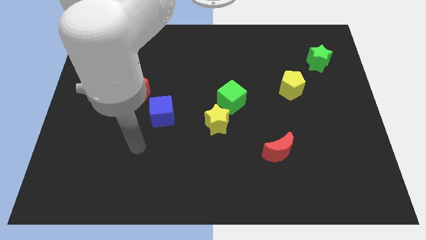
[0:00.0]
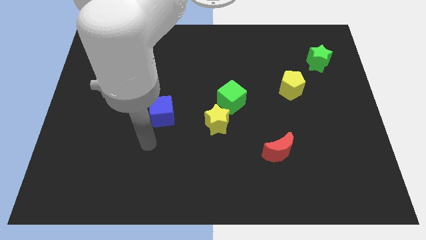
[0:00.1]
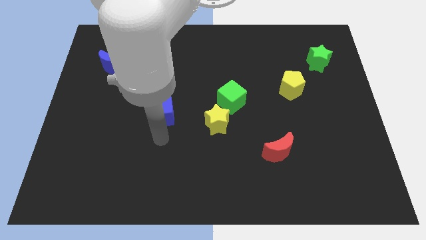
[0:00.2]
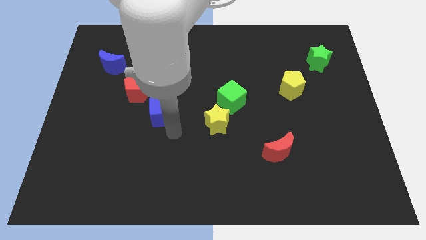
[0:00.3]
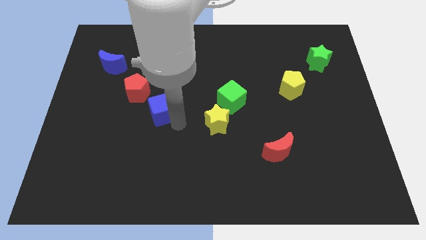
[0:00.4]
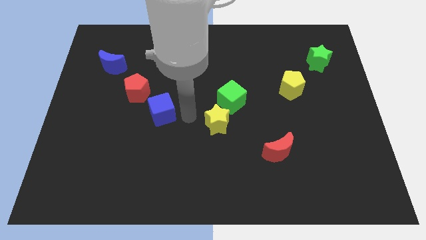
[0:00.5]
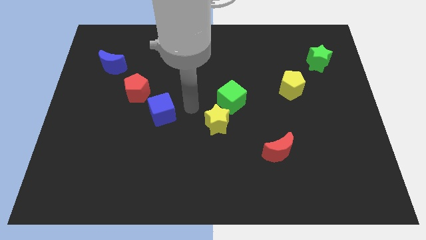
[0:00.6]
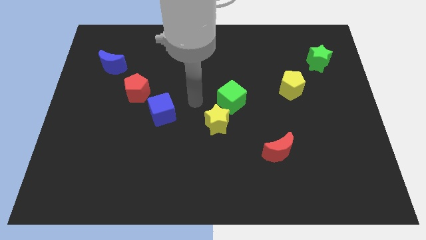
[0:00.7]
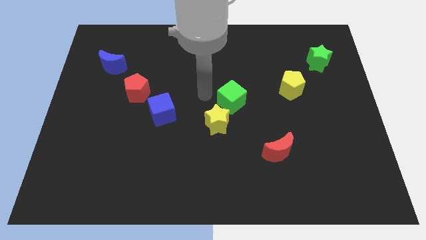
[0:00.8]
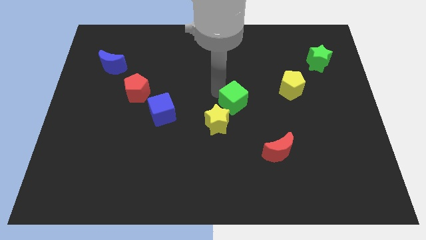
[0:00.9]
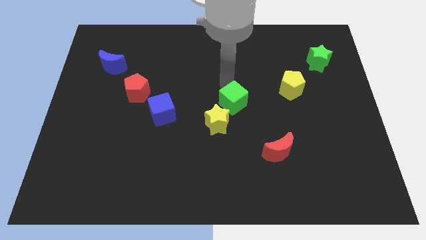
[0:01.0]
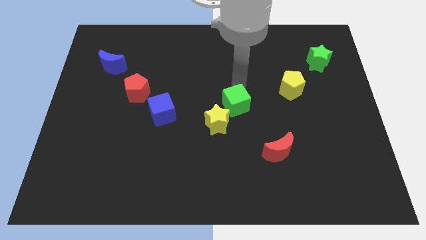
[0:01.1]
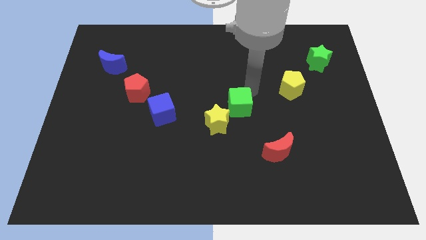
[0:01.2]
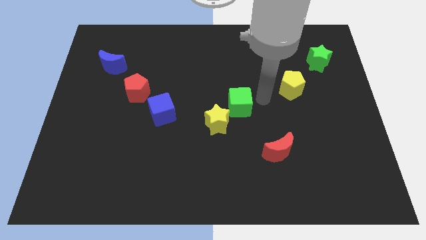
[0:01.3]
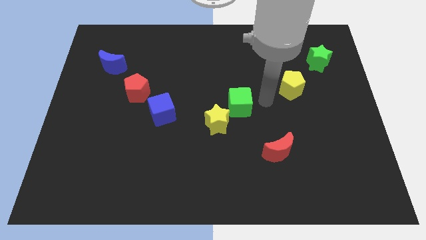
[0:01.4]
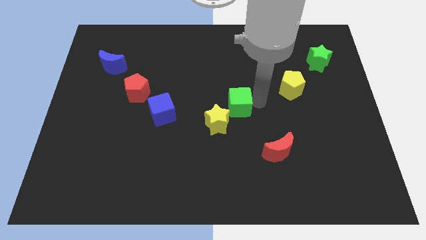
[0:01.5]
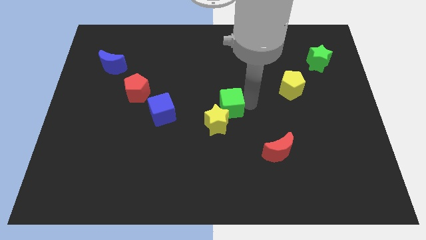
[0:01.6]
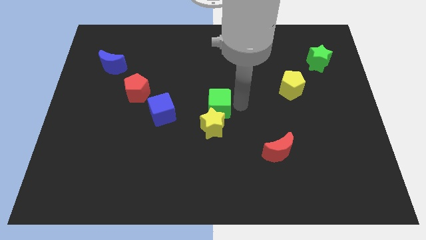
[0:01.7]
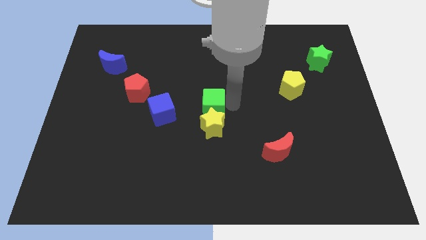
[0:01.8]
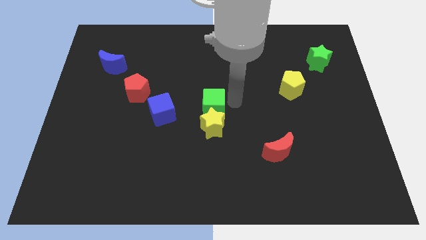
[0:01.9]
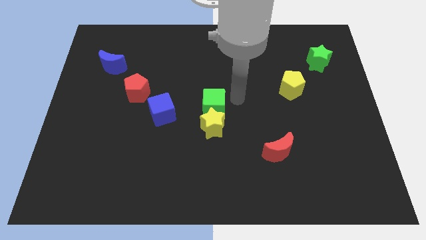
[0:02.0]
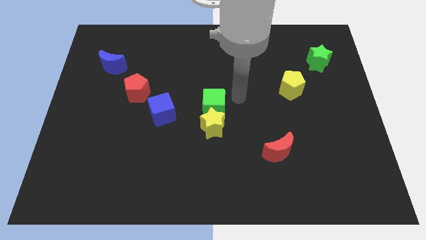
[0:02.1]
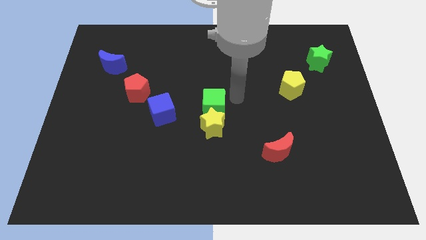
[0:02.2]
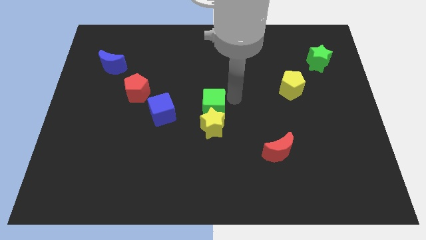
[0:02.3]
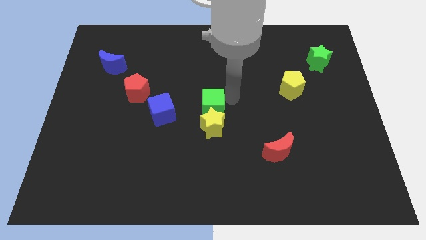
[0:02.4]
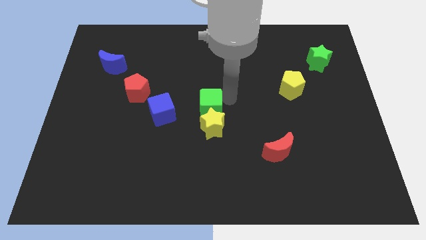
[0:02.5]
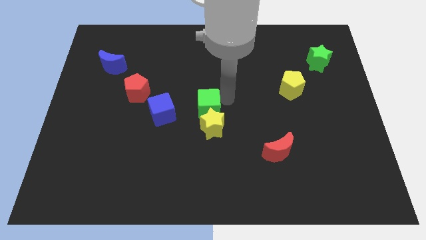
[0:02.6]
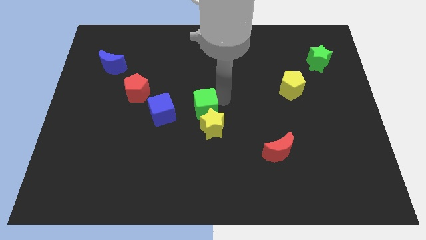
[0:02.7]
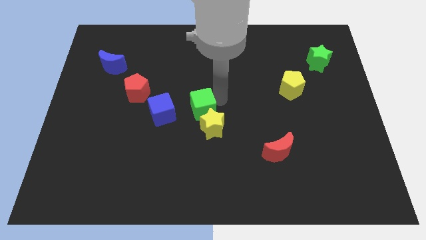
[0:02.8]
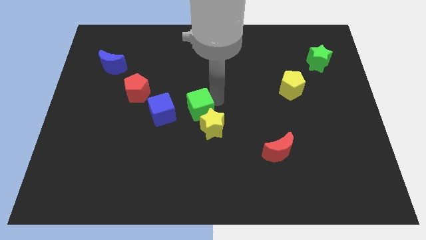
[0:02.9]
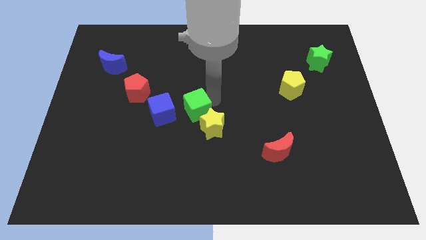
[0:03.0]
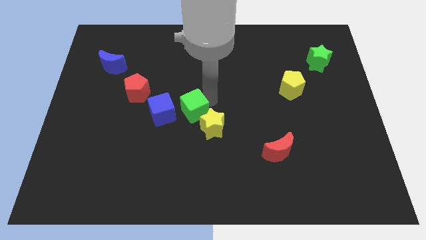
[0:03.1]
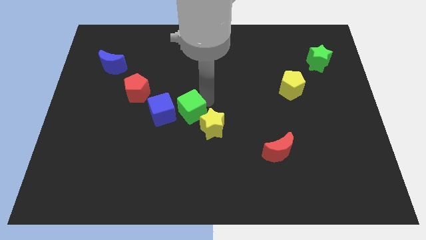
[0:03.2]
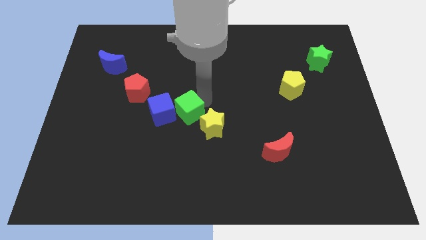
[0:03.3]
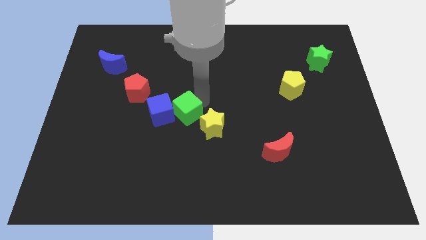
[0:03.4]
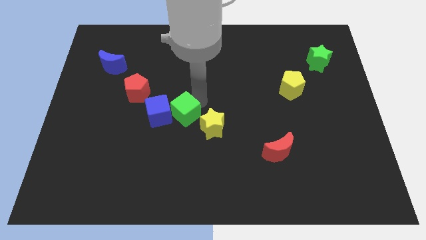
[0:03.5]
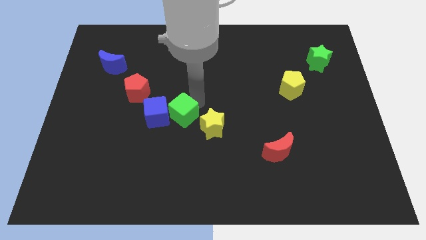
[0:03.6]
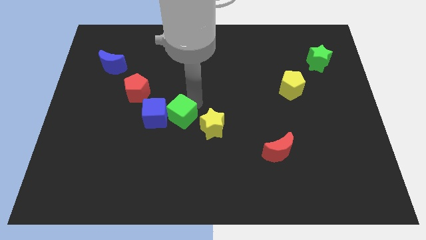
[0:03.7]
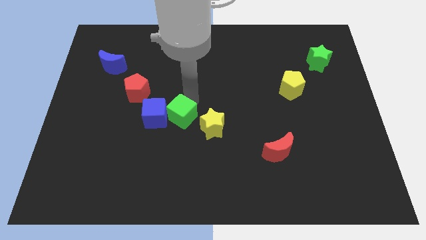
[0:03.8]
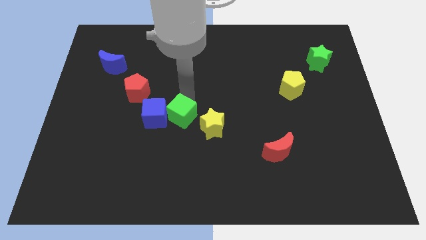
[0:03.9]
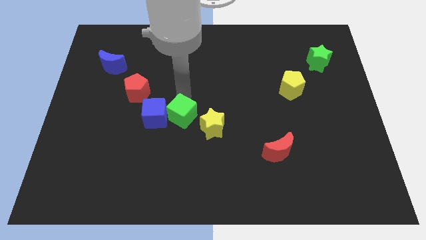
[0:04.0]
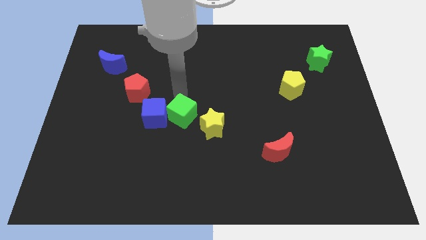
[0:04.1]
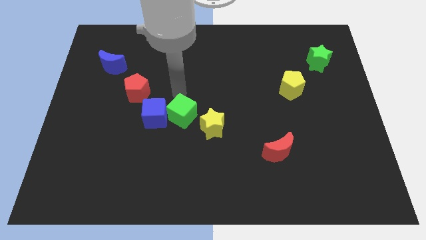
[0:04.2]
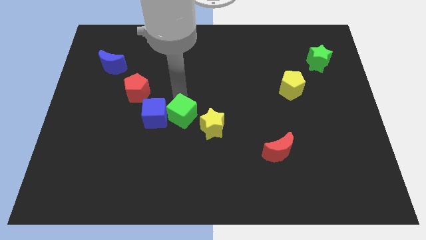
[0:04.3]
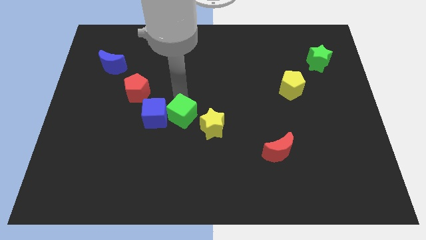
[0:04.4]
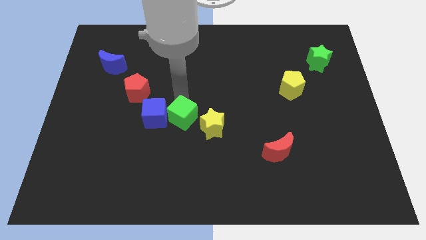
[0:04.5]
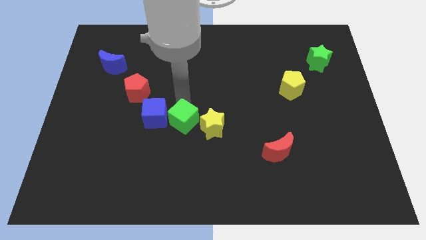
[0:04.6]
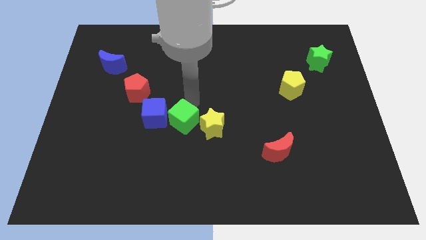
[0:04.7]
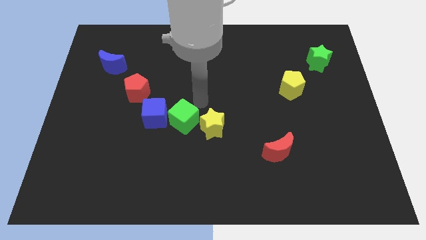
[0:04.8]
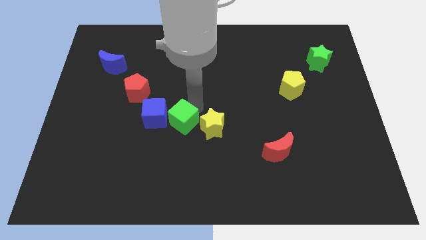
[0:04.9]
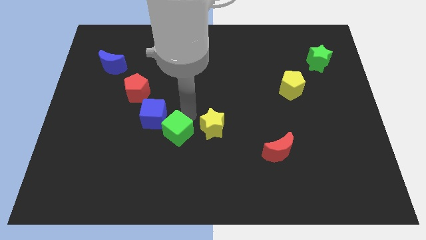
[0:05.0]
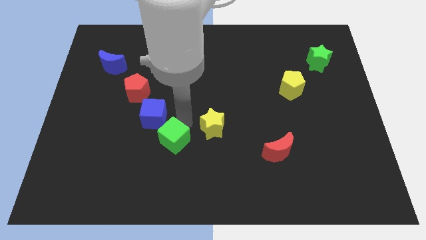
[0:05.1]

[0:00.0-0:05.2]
move the green cube to the bottom side of the blue cube
